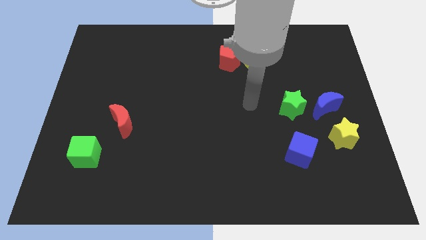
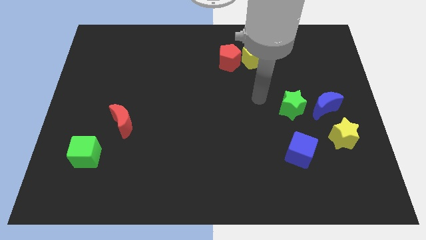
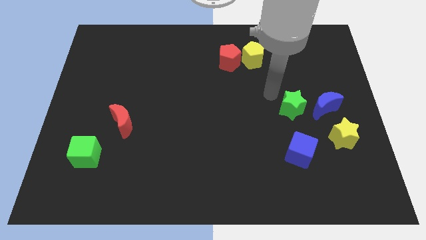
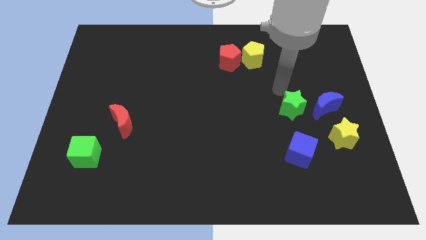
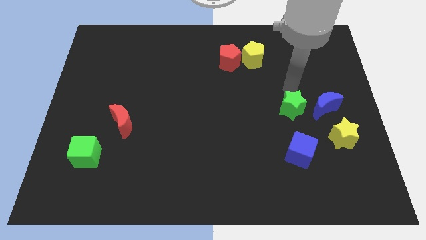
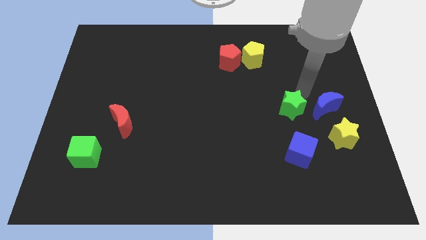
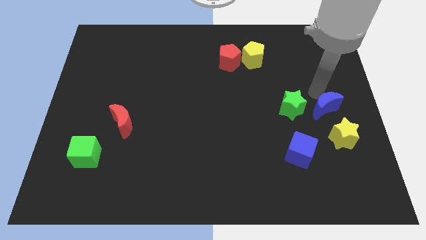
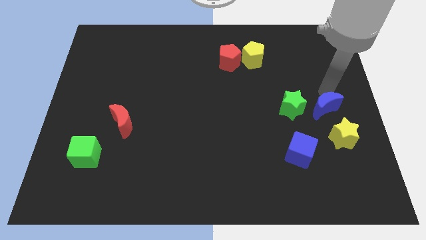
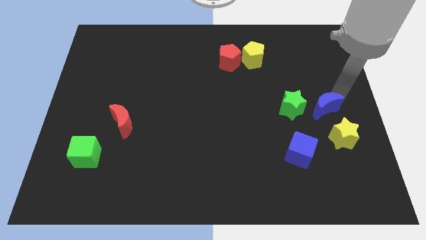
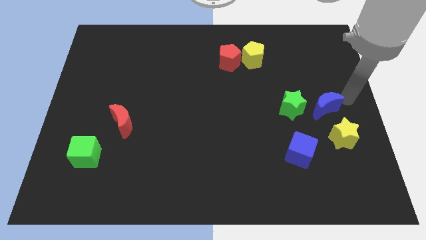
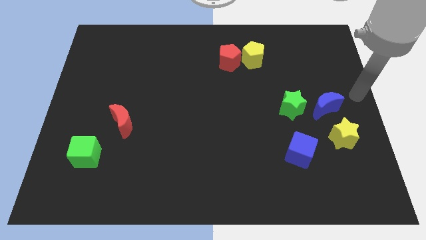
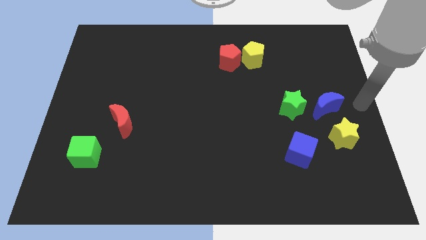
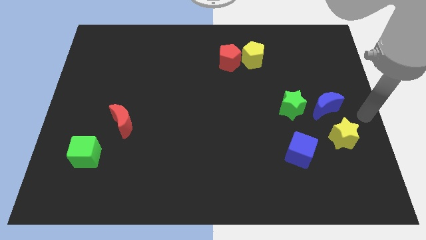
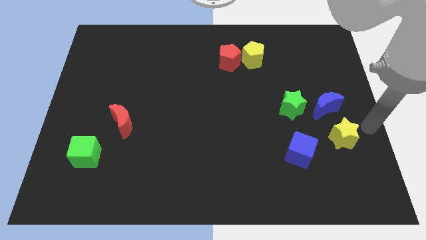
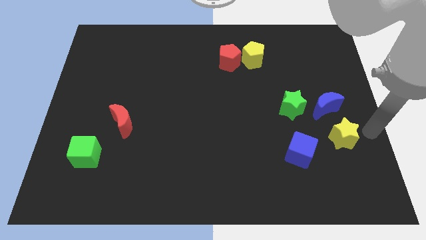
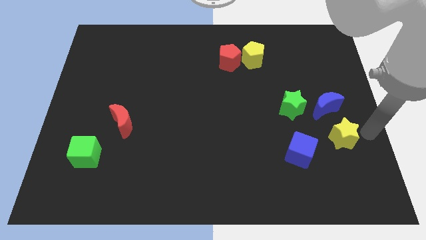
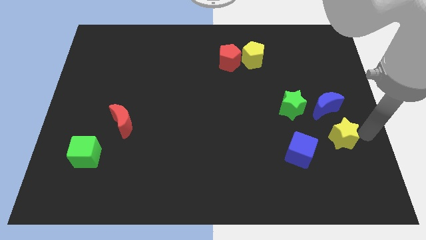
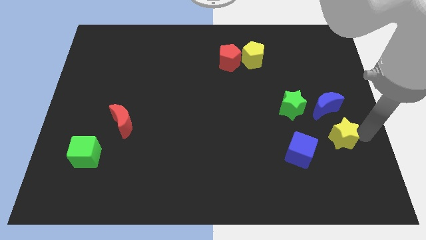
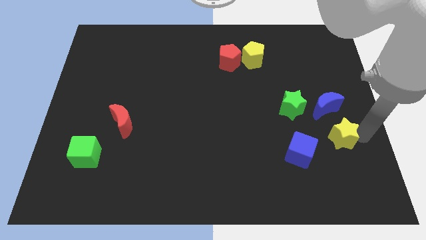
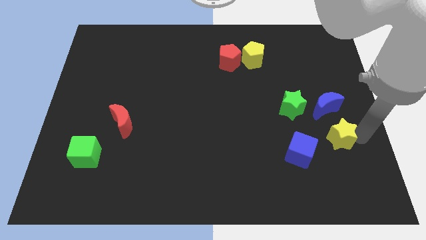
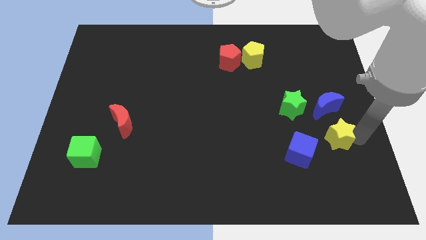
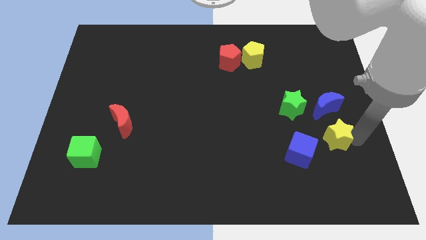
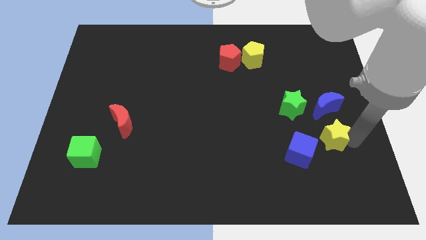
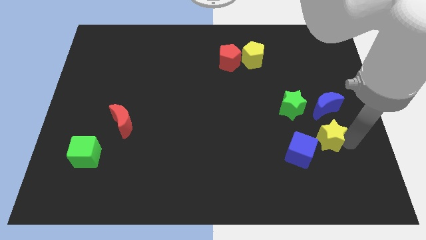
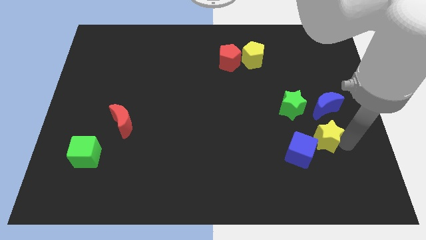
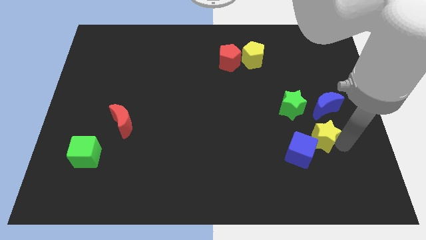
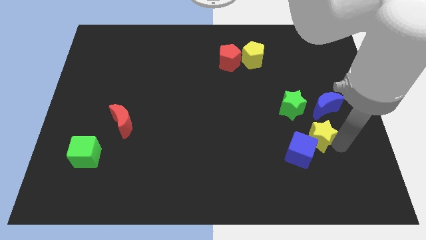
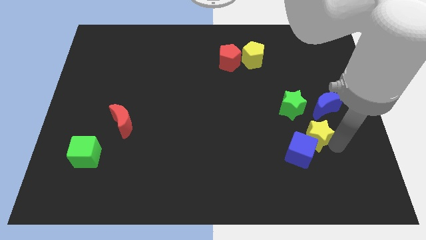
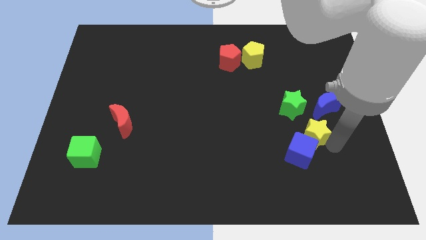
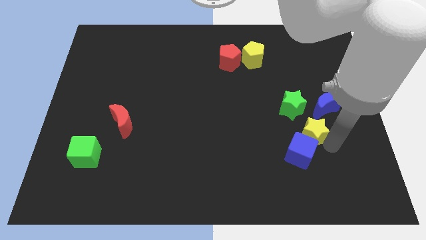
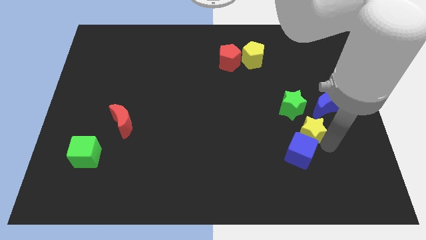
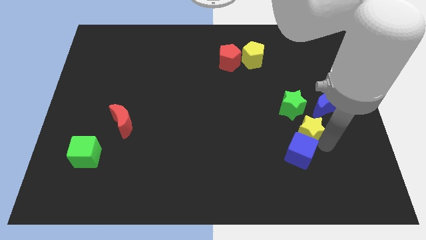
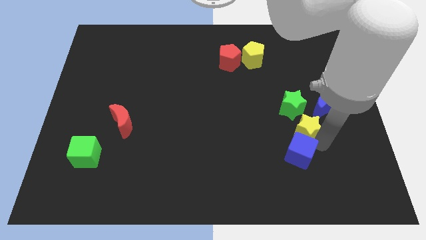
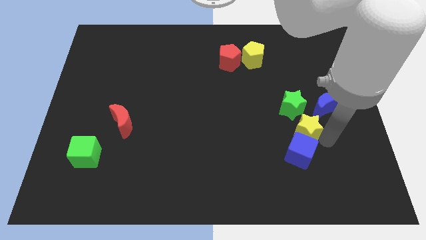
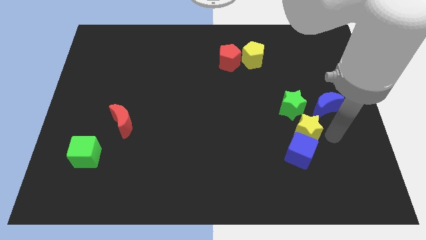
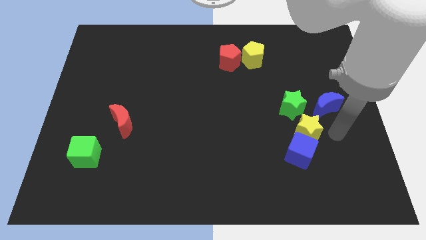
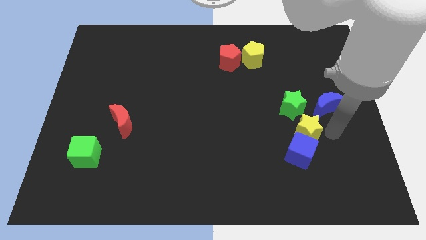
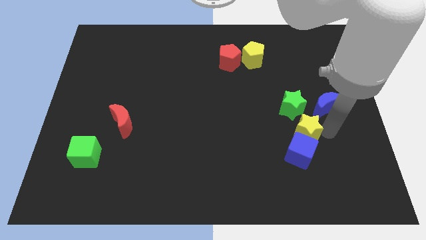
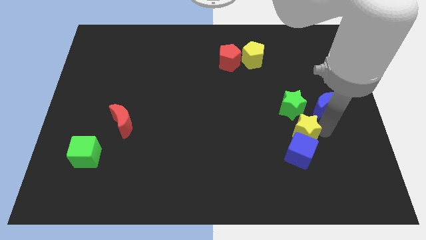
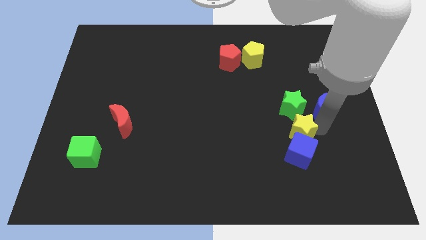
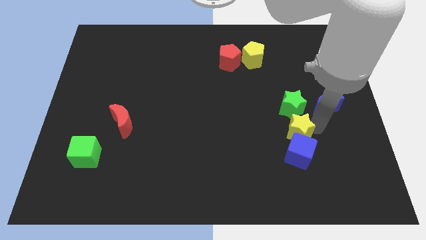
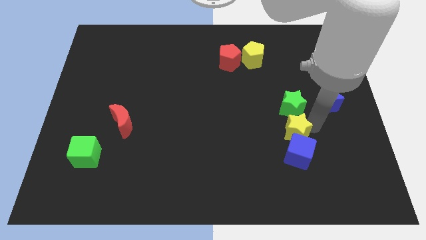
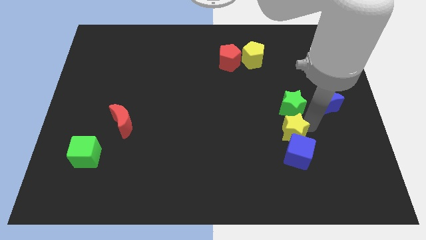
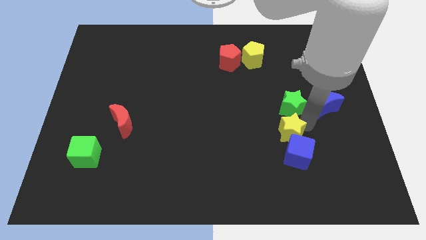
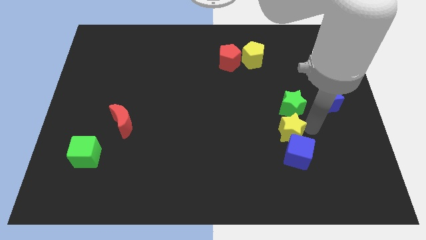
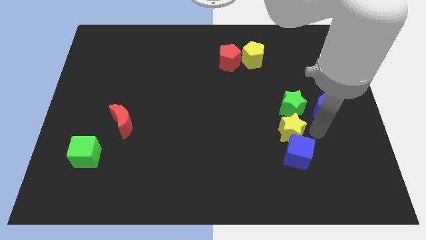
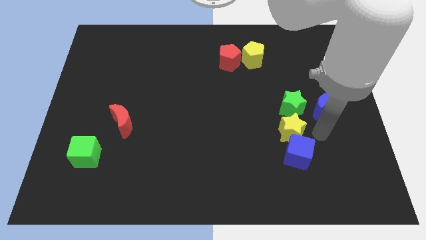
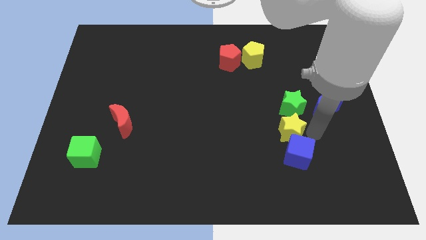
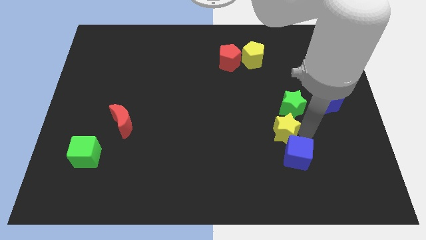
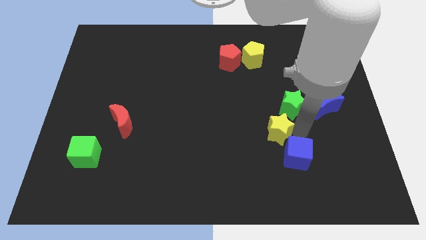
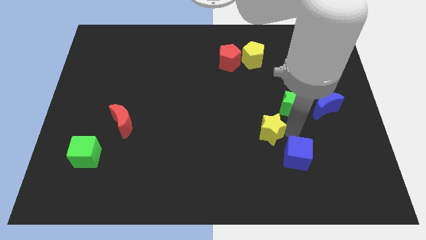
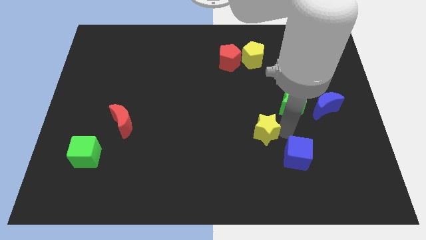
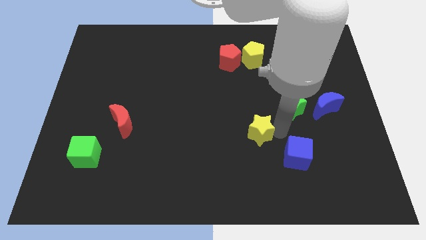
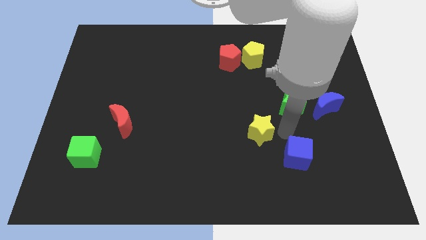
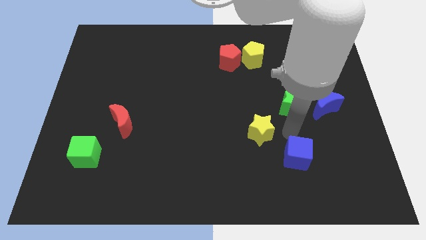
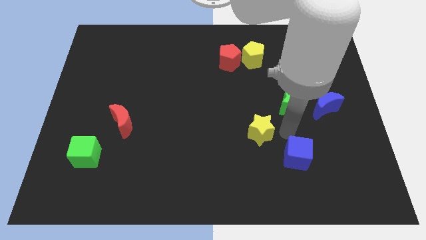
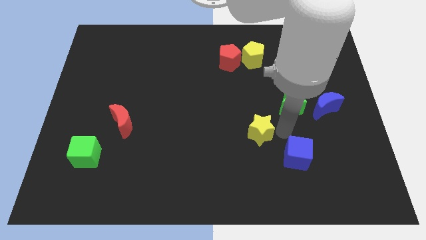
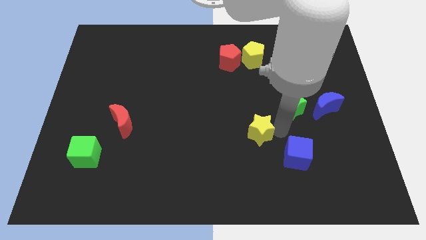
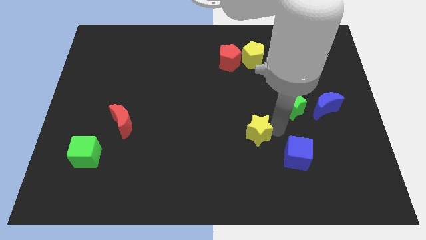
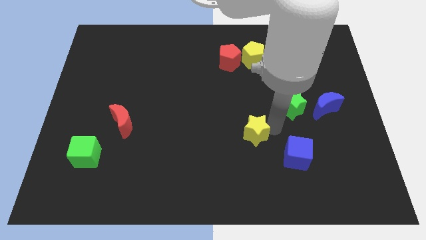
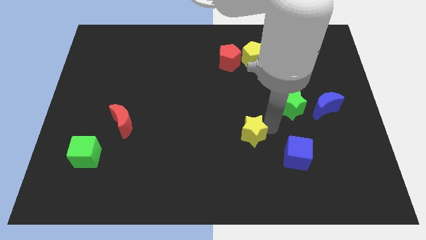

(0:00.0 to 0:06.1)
move the yellow star to the left

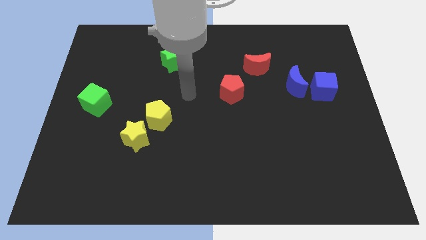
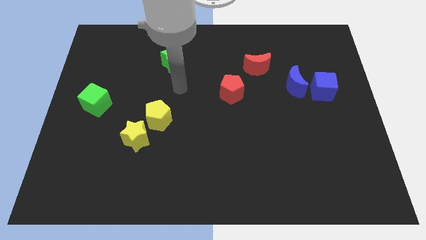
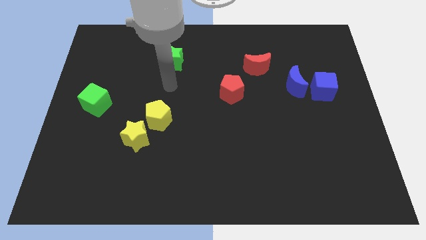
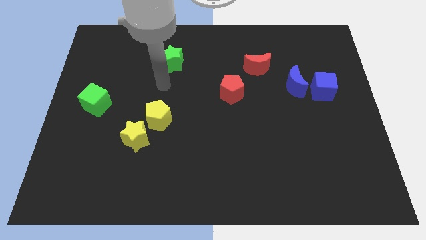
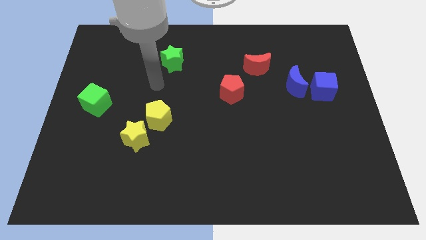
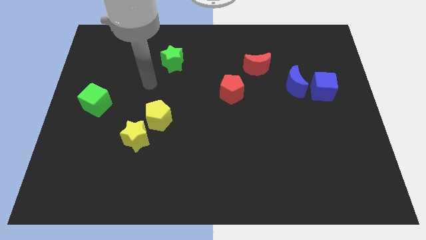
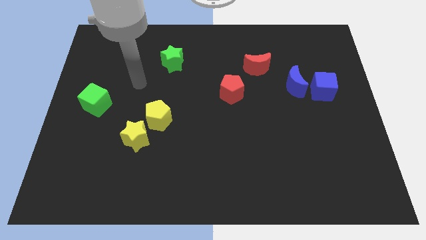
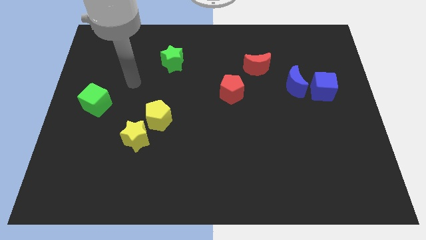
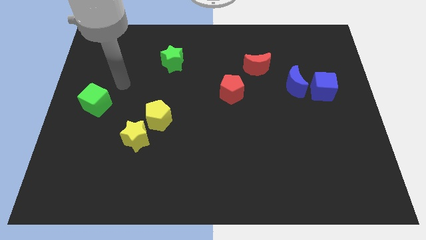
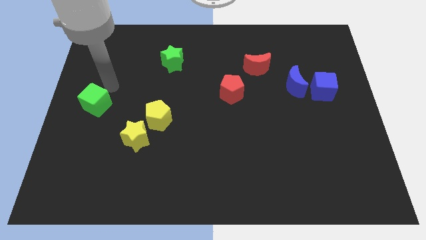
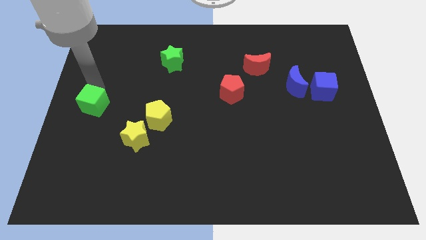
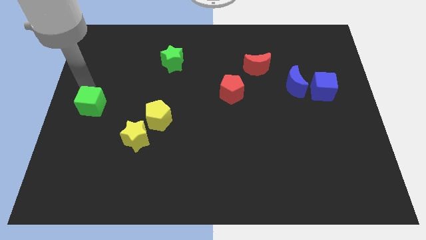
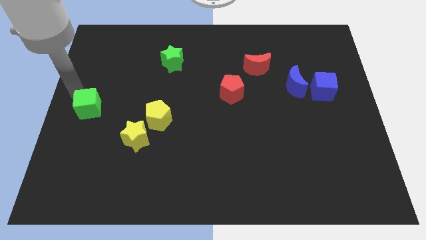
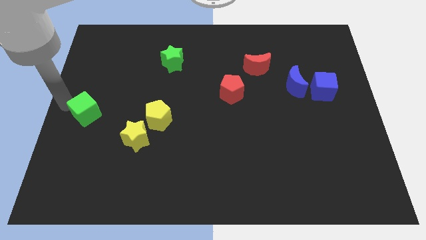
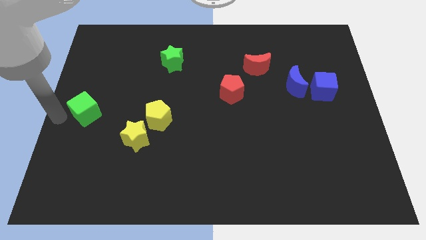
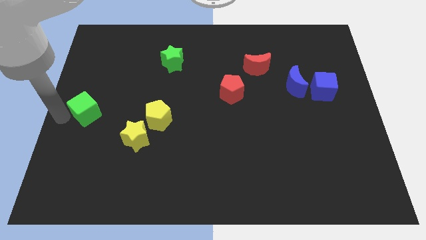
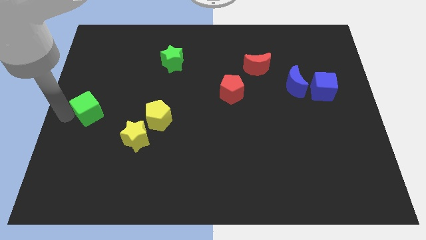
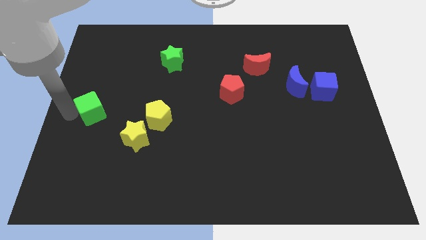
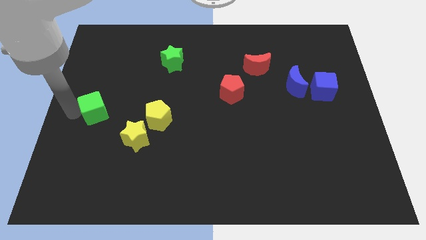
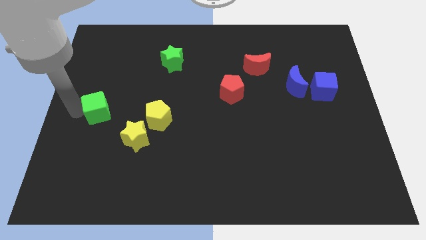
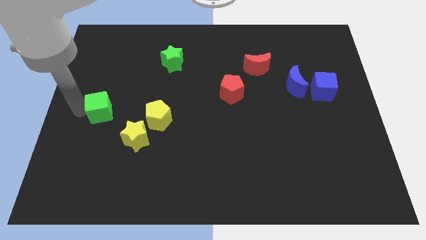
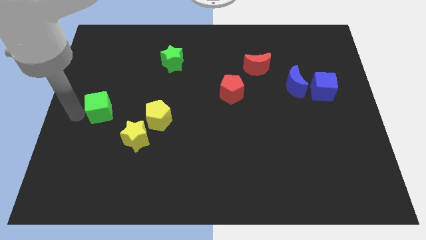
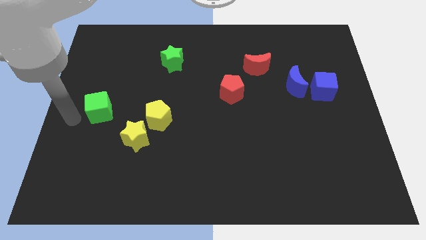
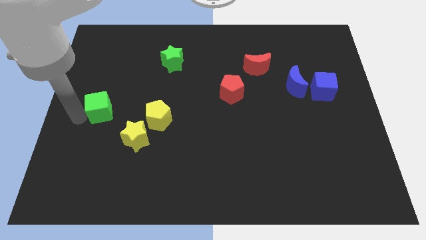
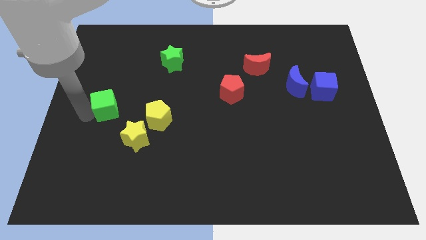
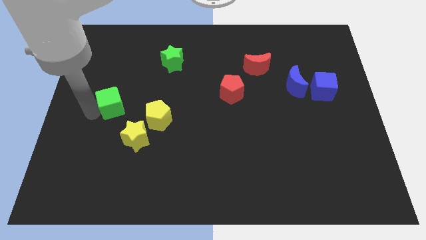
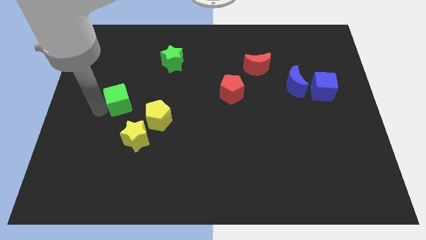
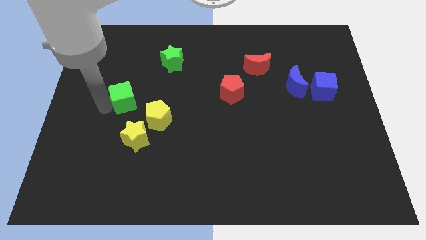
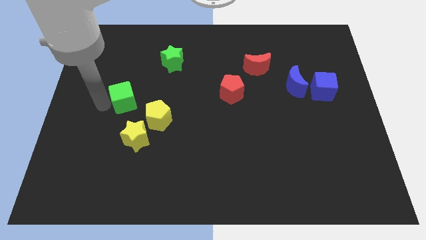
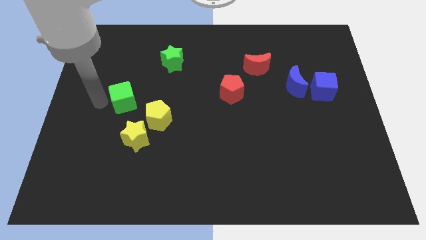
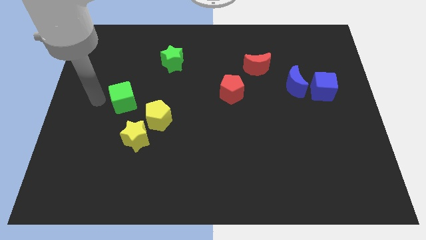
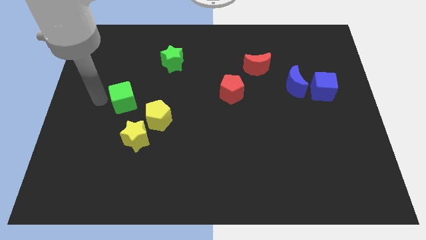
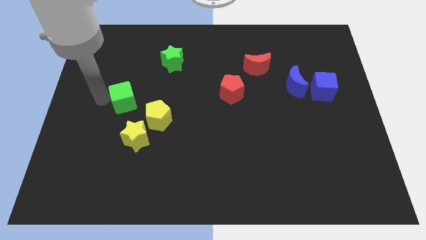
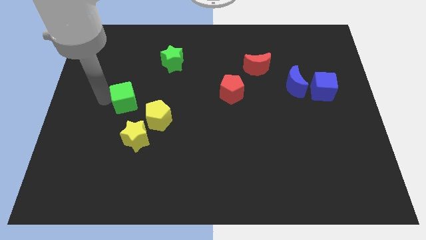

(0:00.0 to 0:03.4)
slide the green cube slightly to the right
